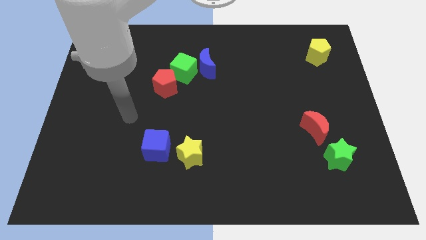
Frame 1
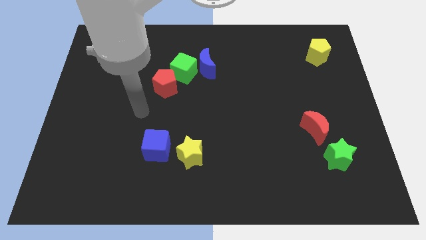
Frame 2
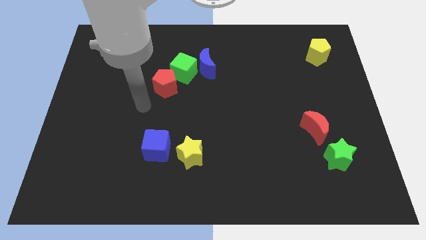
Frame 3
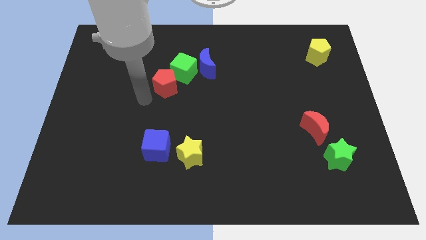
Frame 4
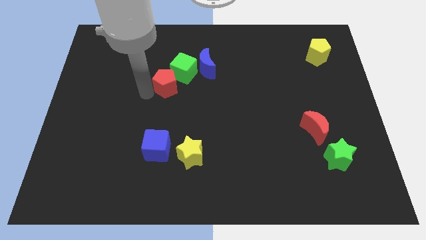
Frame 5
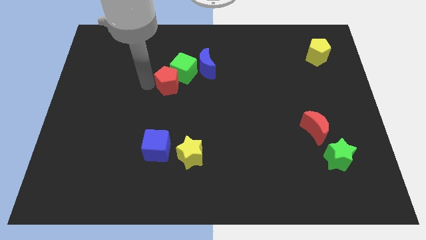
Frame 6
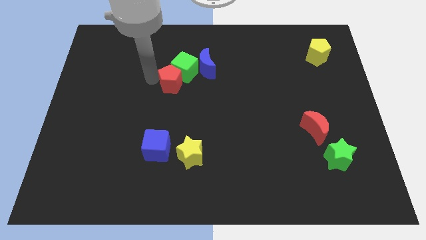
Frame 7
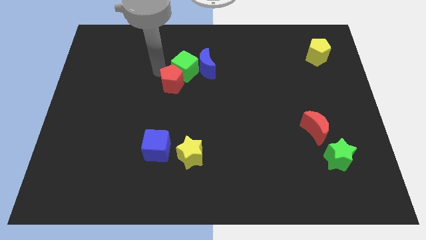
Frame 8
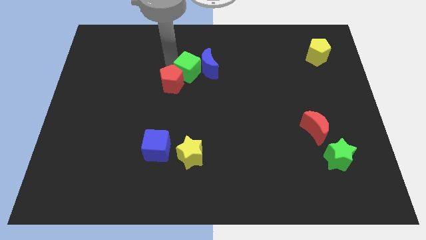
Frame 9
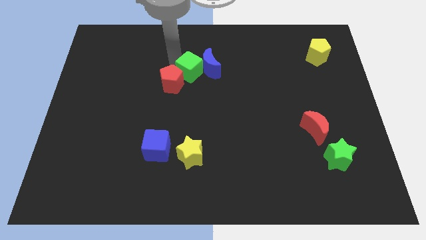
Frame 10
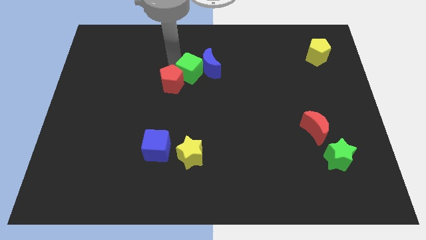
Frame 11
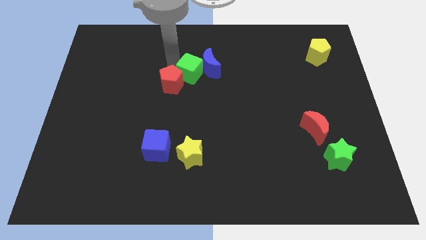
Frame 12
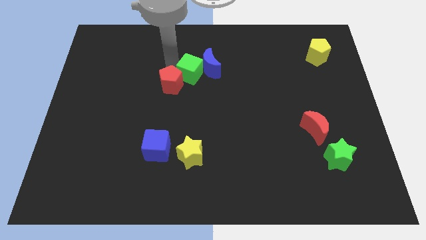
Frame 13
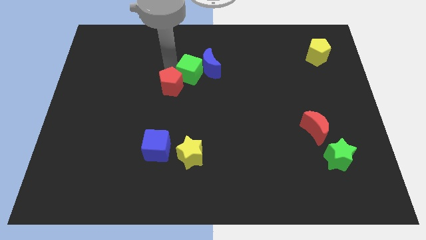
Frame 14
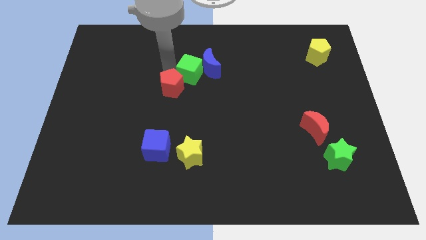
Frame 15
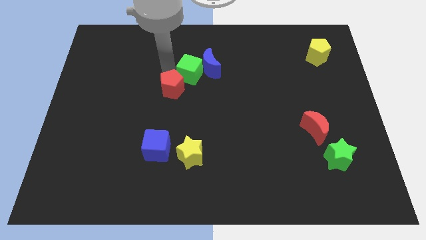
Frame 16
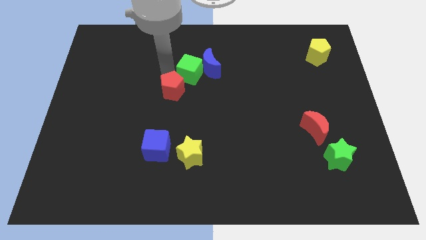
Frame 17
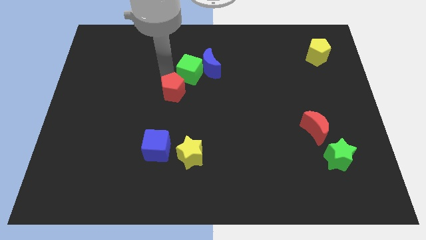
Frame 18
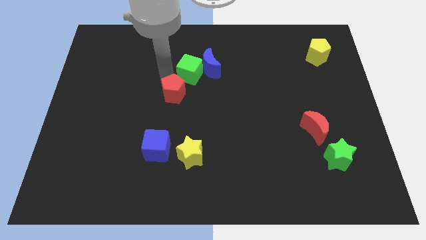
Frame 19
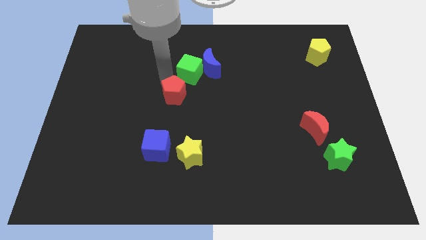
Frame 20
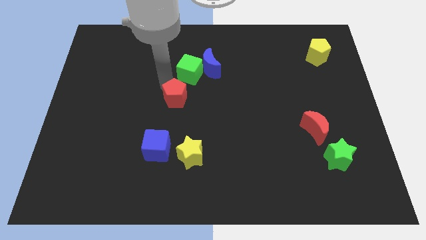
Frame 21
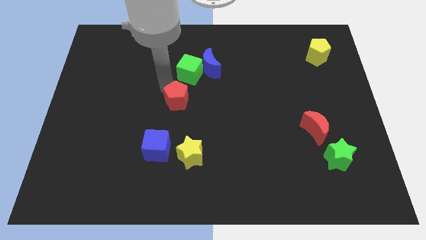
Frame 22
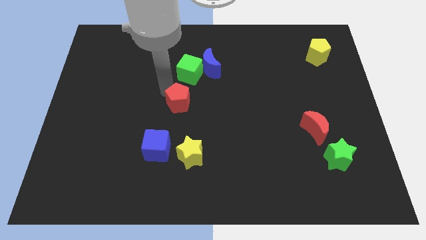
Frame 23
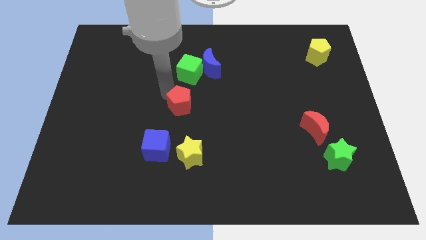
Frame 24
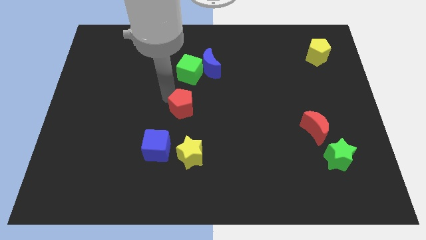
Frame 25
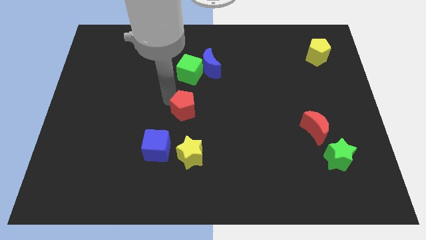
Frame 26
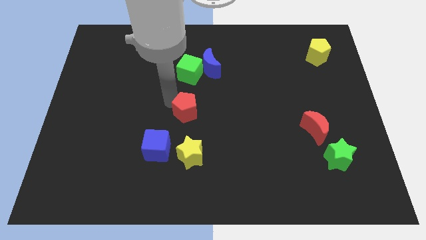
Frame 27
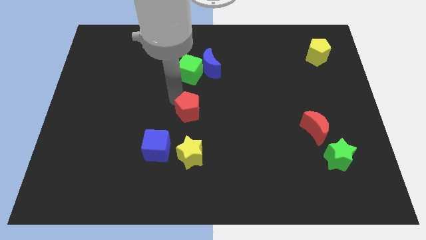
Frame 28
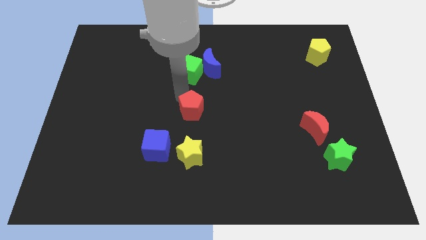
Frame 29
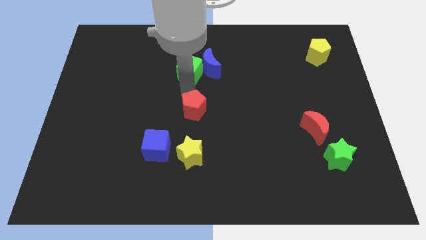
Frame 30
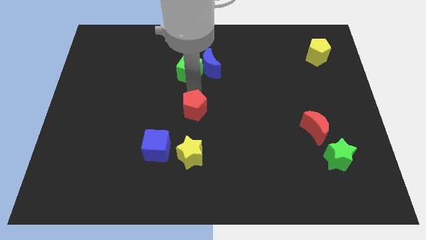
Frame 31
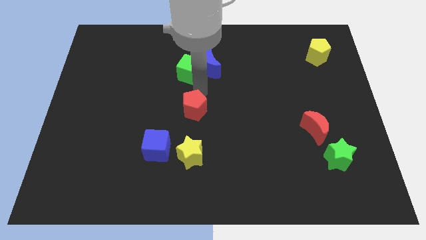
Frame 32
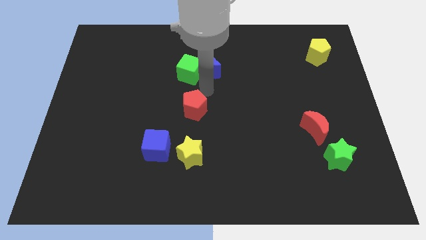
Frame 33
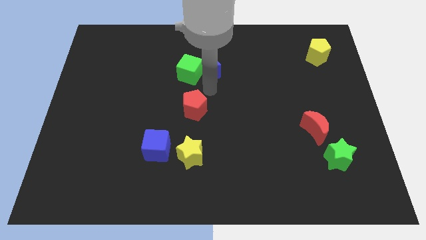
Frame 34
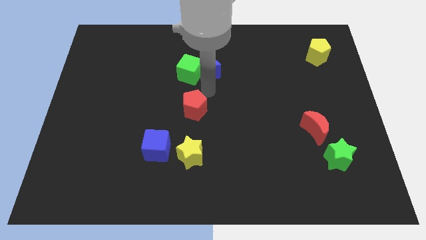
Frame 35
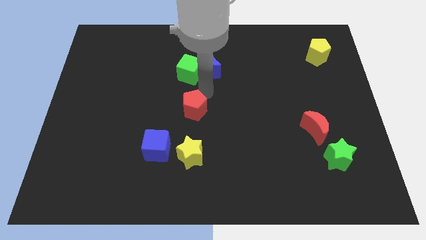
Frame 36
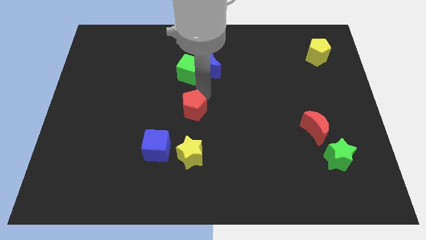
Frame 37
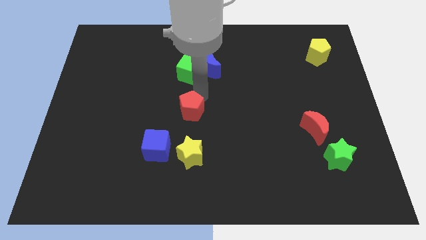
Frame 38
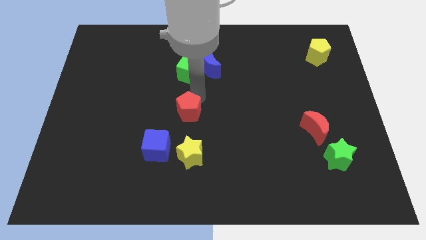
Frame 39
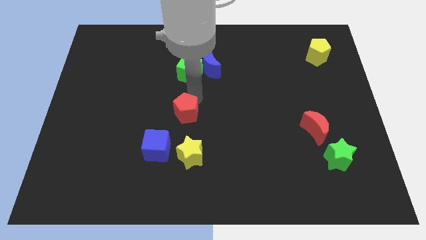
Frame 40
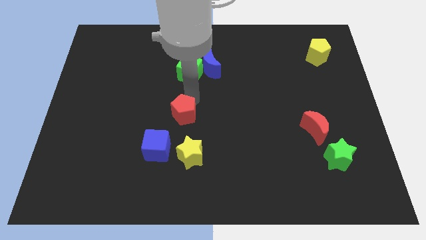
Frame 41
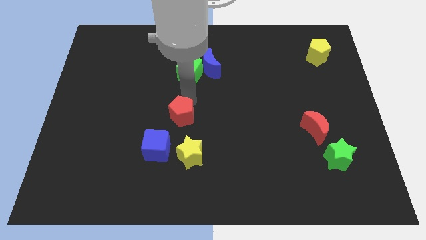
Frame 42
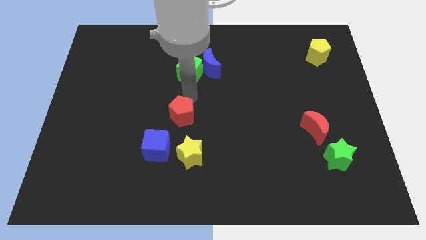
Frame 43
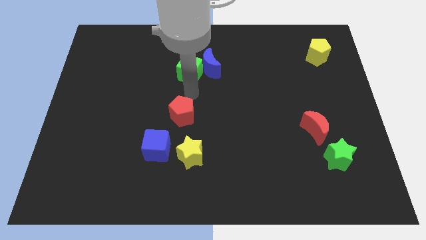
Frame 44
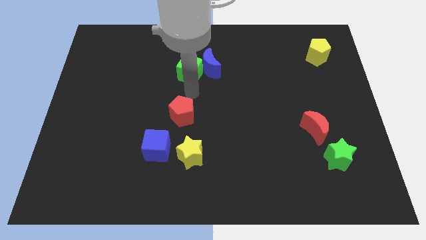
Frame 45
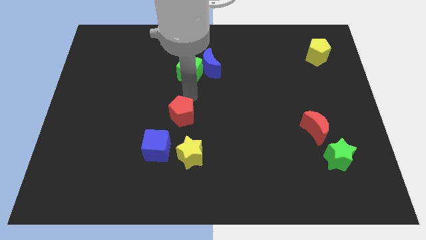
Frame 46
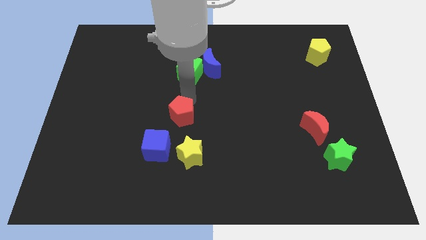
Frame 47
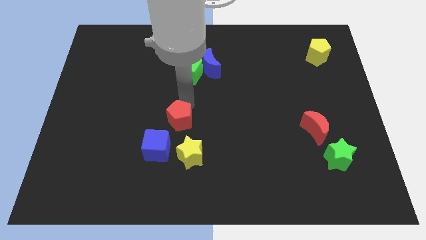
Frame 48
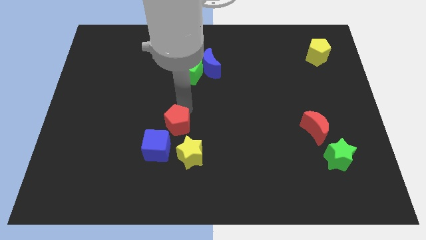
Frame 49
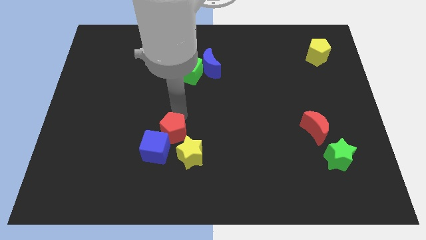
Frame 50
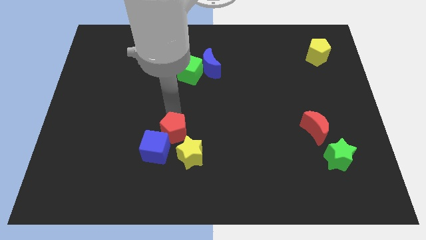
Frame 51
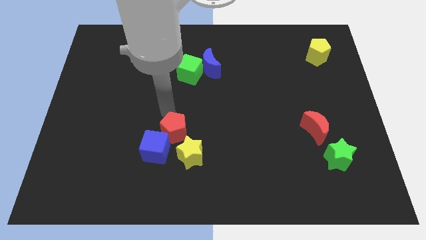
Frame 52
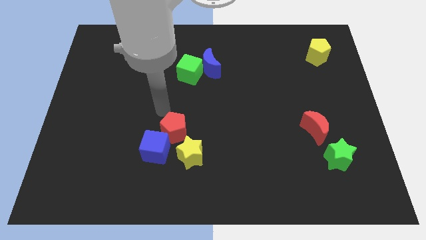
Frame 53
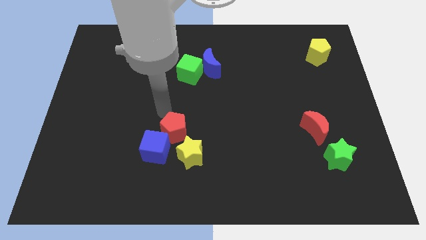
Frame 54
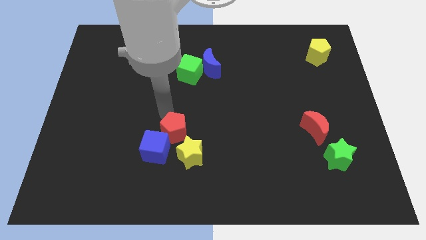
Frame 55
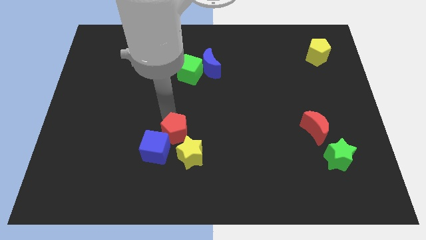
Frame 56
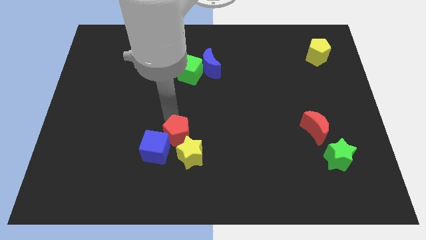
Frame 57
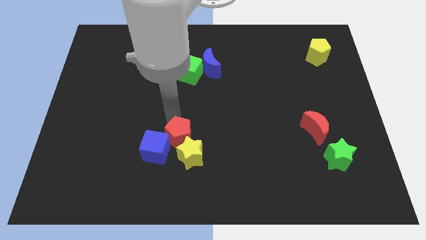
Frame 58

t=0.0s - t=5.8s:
slide the red pentagon towards the yellow star

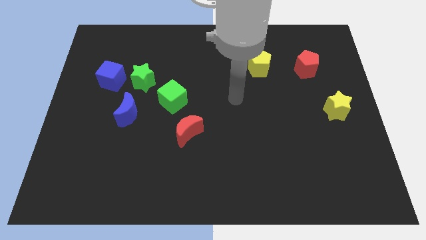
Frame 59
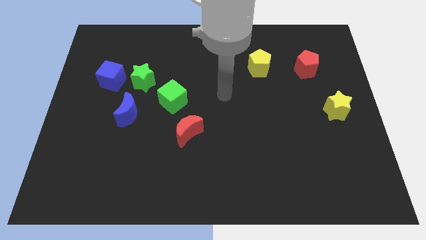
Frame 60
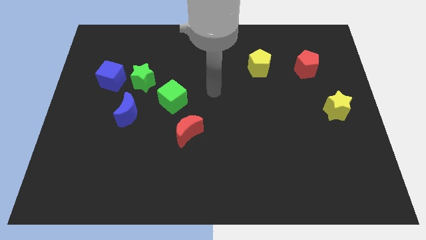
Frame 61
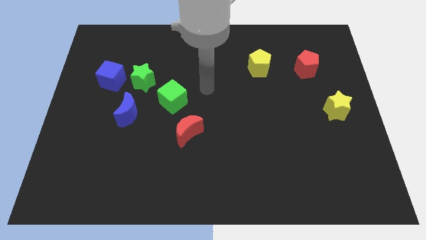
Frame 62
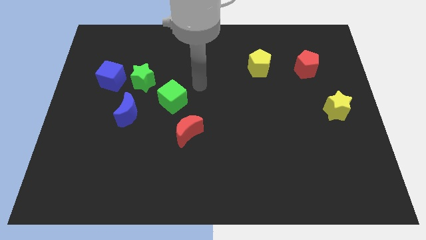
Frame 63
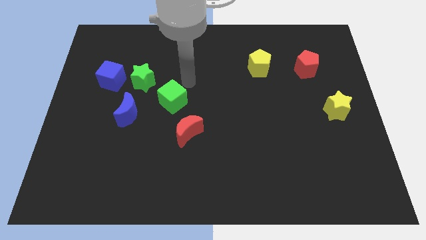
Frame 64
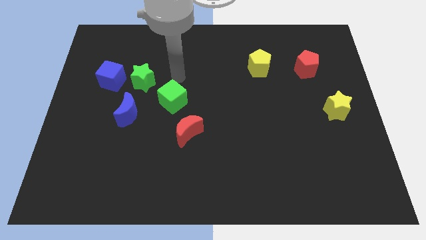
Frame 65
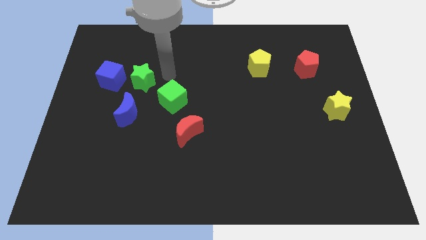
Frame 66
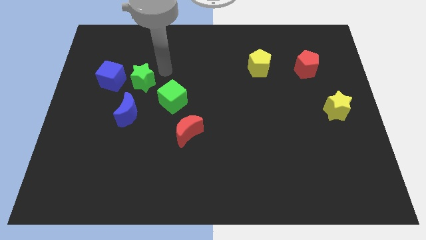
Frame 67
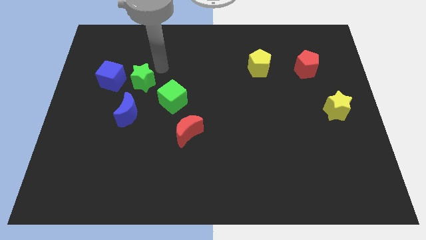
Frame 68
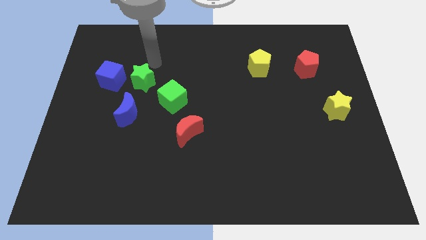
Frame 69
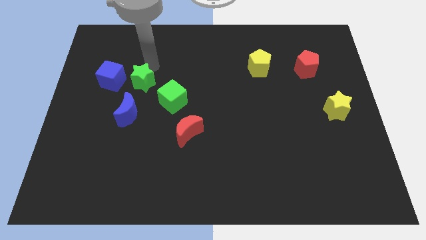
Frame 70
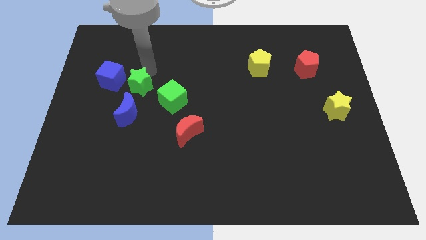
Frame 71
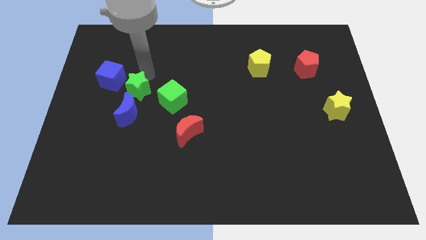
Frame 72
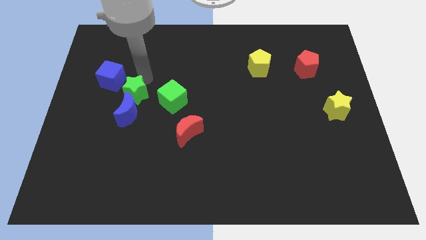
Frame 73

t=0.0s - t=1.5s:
slide the green star close to the blue moon
